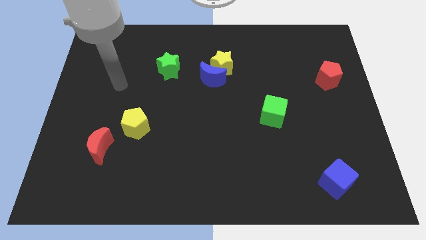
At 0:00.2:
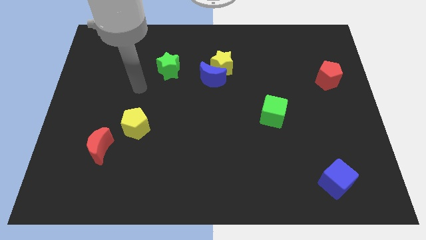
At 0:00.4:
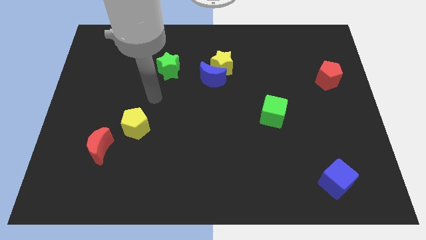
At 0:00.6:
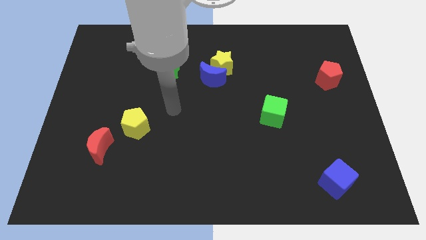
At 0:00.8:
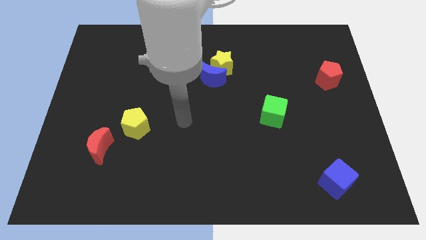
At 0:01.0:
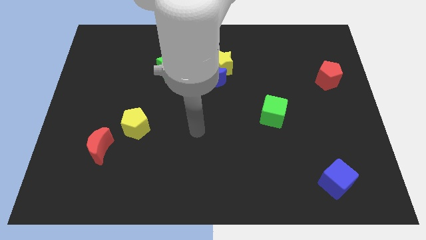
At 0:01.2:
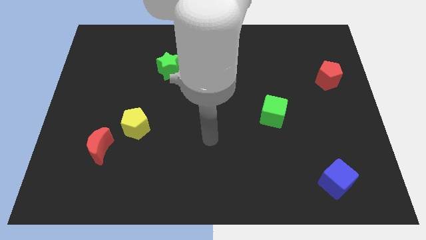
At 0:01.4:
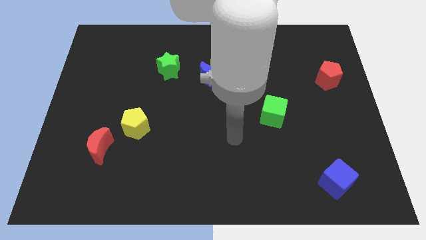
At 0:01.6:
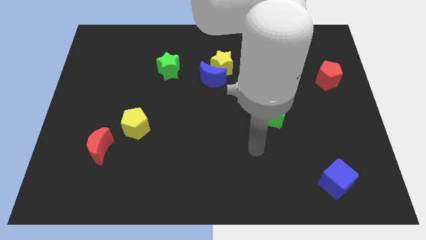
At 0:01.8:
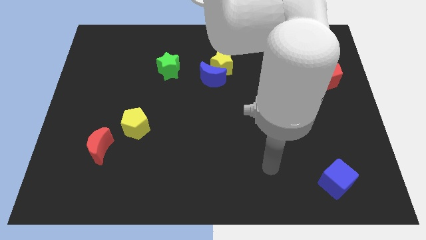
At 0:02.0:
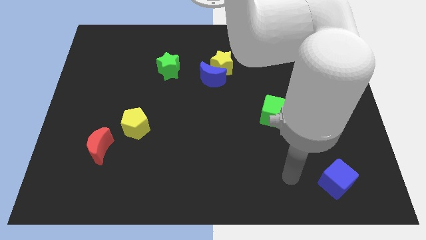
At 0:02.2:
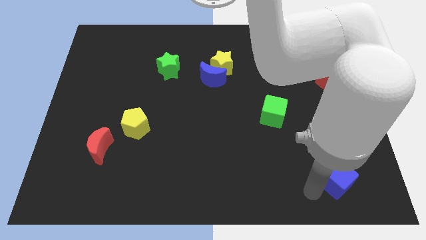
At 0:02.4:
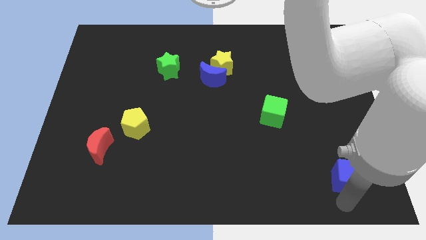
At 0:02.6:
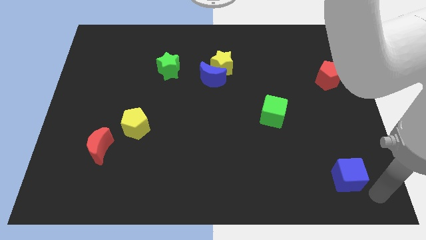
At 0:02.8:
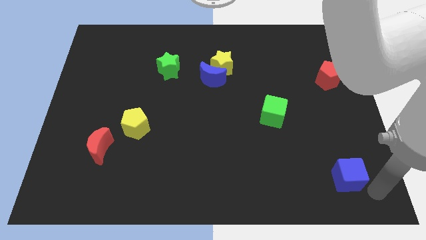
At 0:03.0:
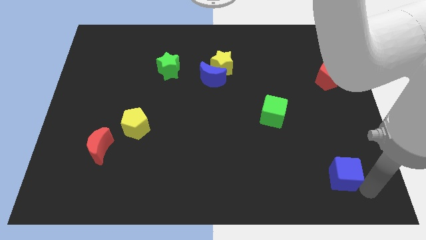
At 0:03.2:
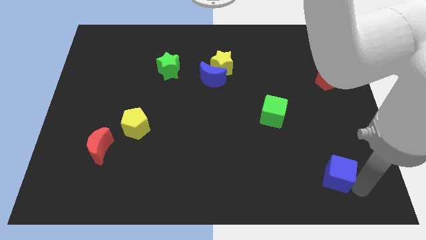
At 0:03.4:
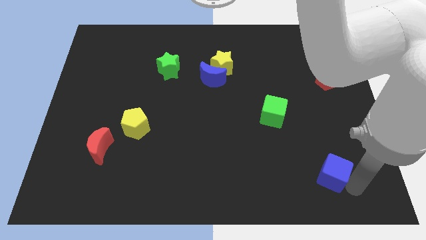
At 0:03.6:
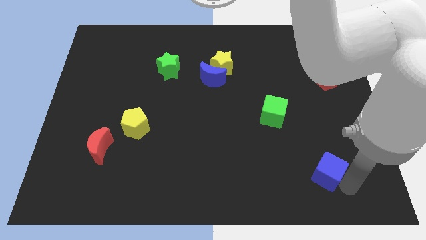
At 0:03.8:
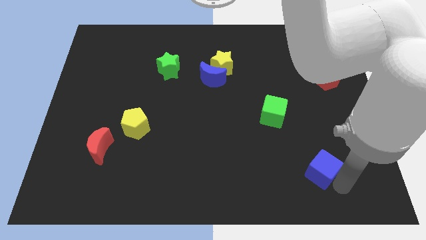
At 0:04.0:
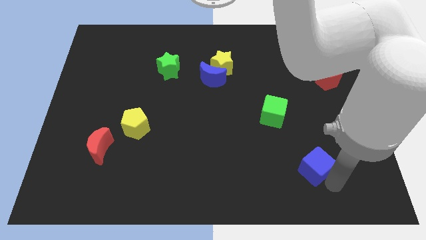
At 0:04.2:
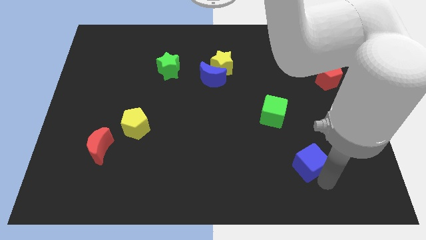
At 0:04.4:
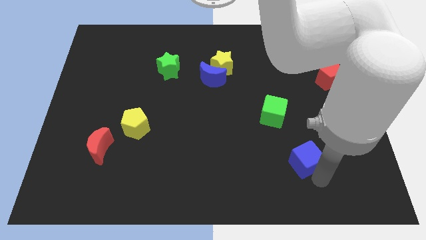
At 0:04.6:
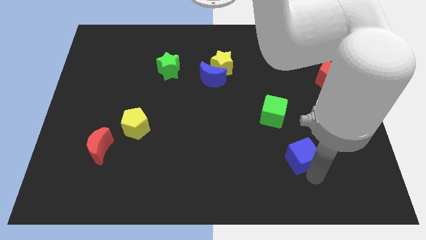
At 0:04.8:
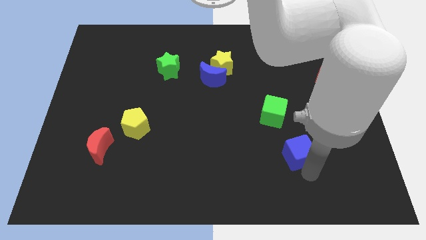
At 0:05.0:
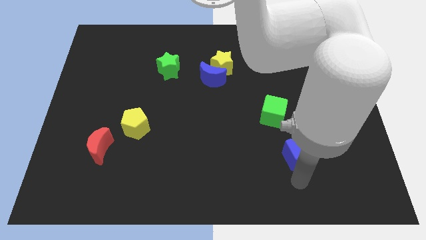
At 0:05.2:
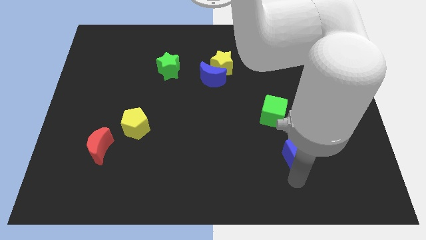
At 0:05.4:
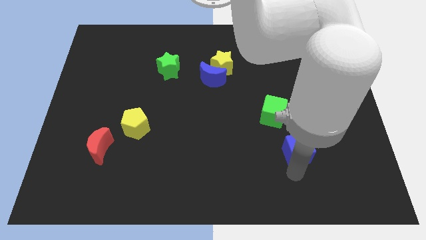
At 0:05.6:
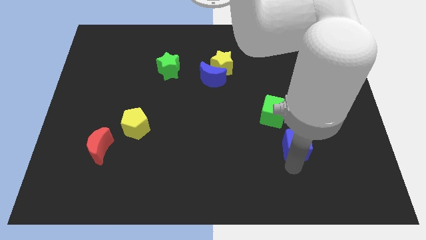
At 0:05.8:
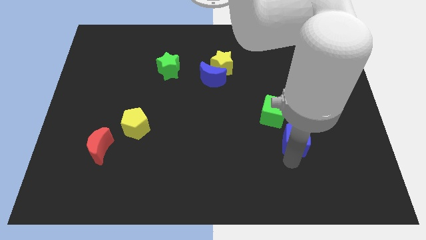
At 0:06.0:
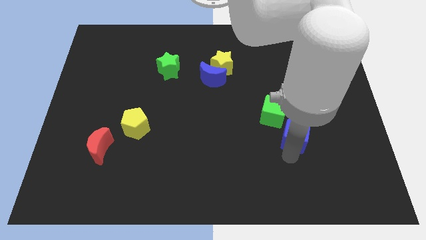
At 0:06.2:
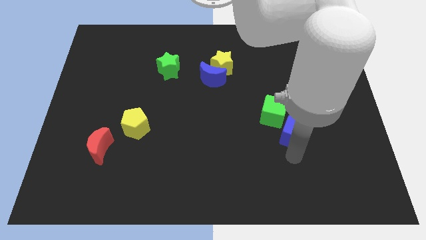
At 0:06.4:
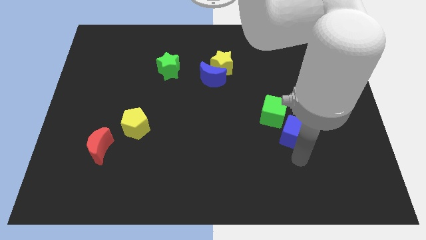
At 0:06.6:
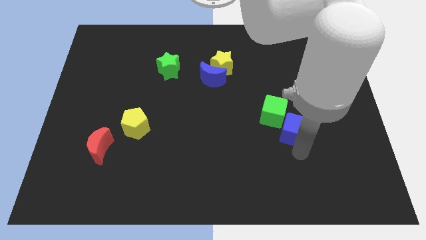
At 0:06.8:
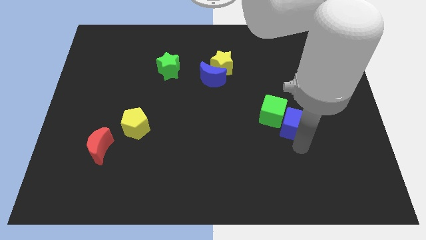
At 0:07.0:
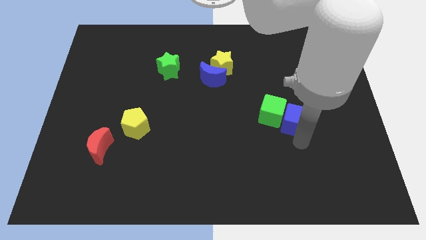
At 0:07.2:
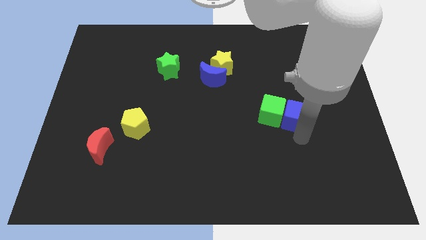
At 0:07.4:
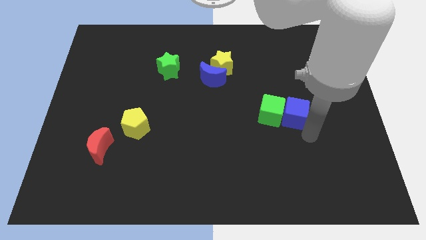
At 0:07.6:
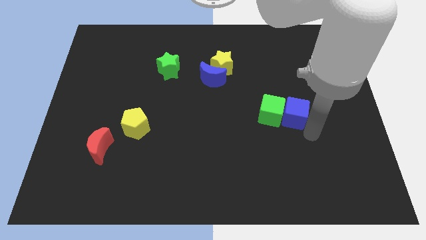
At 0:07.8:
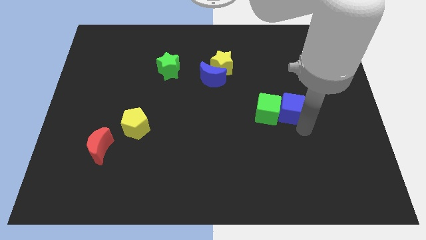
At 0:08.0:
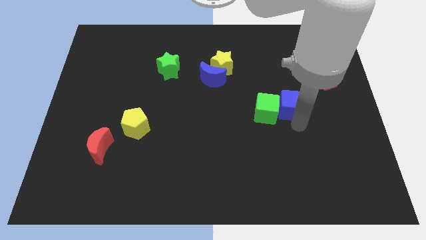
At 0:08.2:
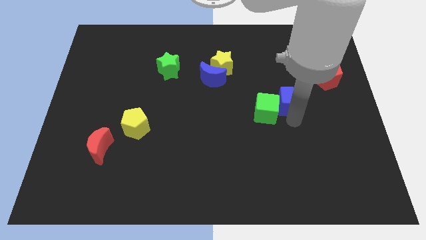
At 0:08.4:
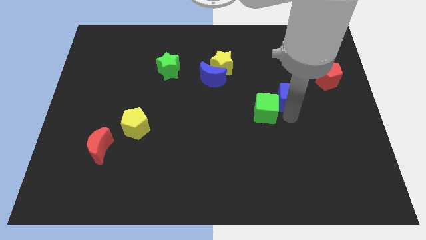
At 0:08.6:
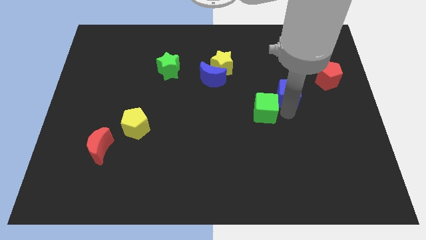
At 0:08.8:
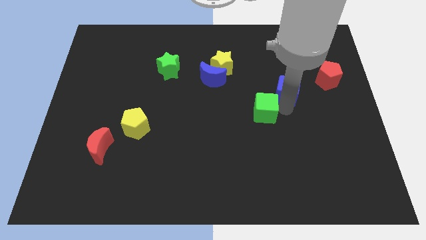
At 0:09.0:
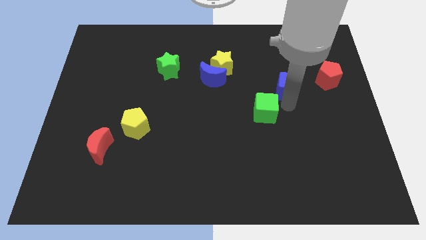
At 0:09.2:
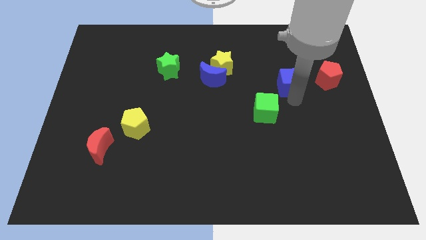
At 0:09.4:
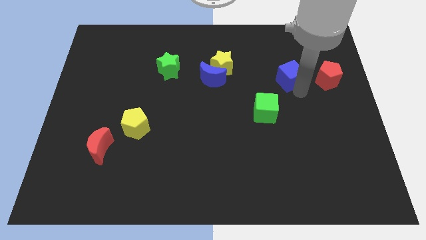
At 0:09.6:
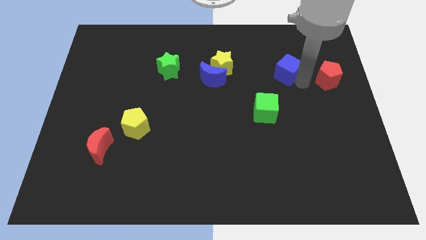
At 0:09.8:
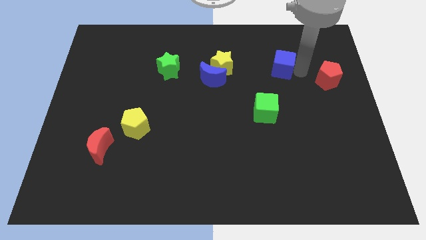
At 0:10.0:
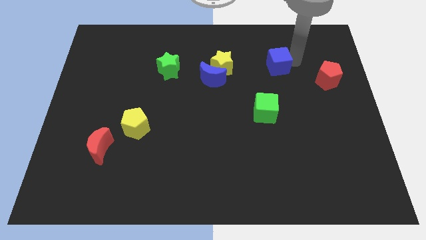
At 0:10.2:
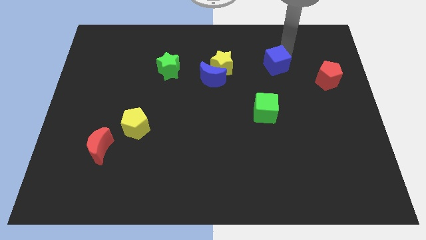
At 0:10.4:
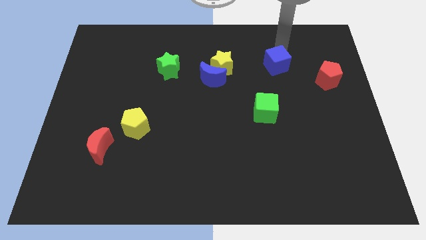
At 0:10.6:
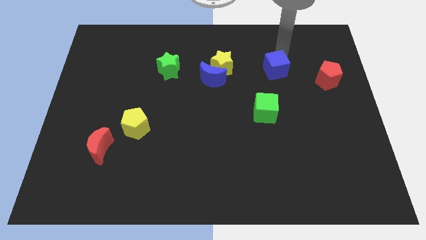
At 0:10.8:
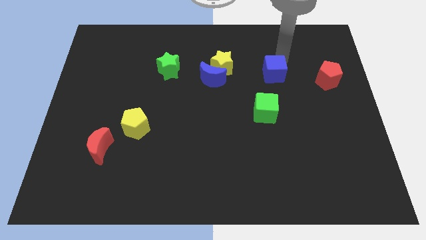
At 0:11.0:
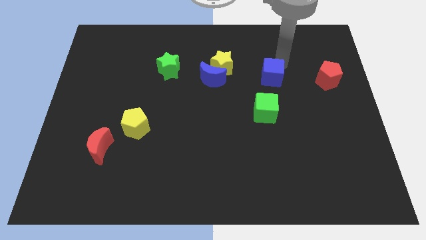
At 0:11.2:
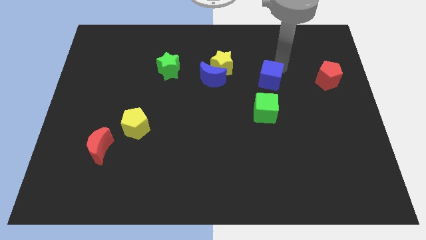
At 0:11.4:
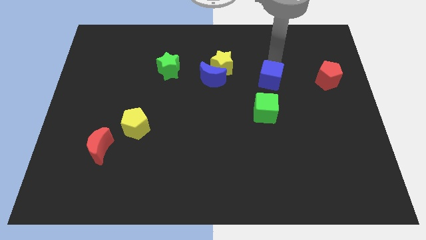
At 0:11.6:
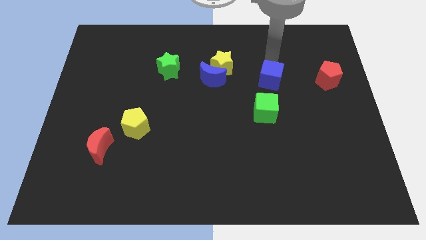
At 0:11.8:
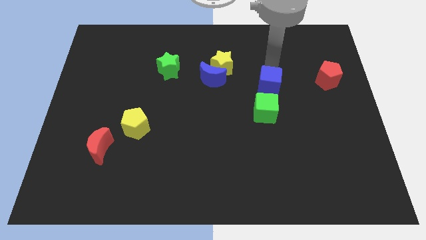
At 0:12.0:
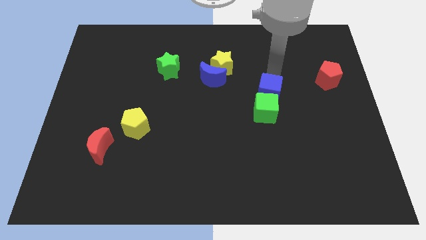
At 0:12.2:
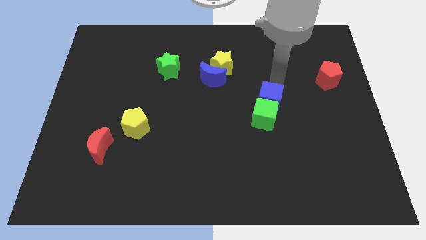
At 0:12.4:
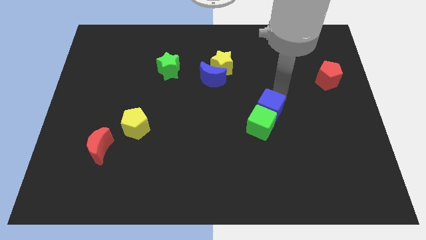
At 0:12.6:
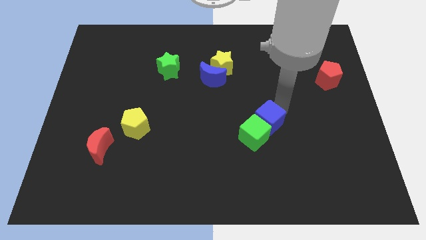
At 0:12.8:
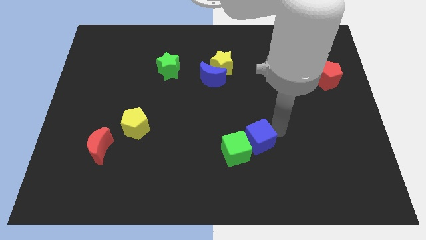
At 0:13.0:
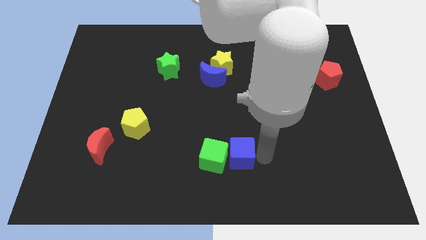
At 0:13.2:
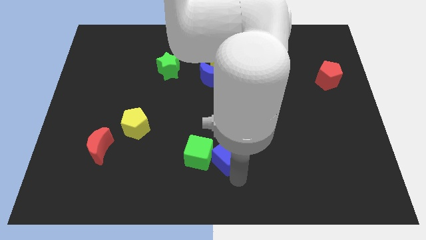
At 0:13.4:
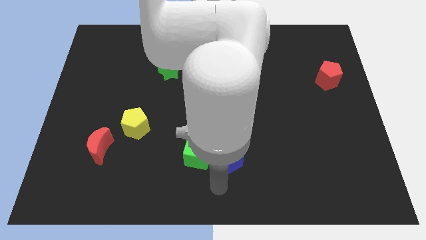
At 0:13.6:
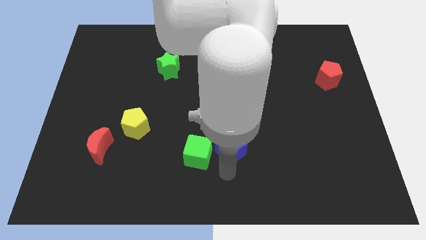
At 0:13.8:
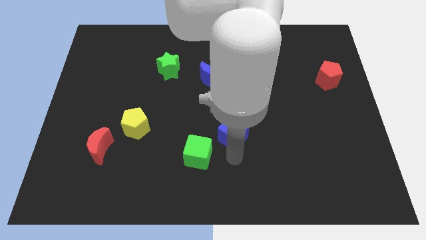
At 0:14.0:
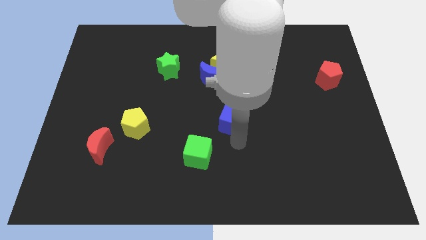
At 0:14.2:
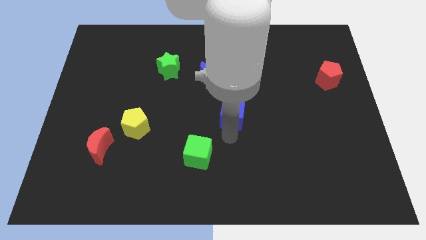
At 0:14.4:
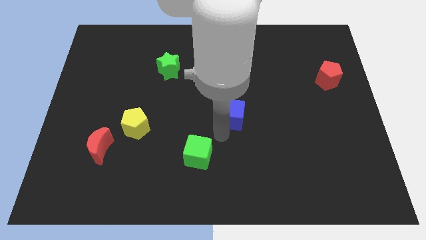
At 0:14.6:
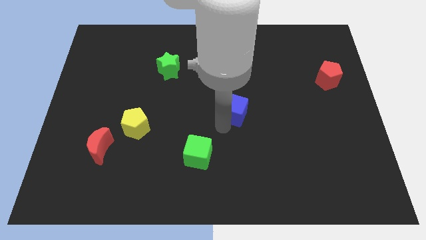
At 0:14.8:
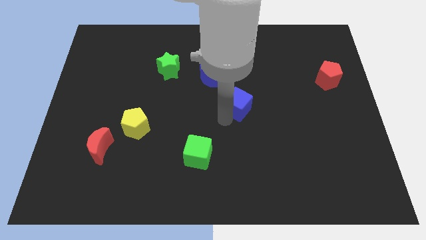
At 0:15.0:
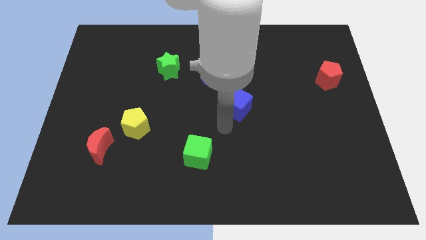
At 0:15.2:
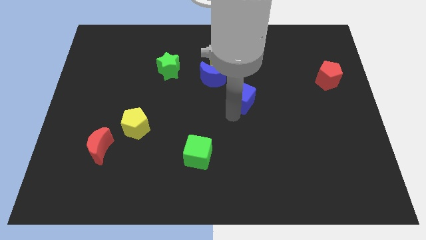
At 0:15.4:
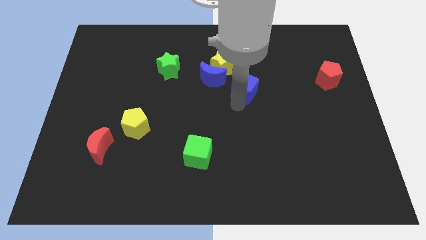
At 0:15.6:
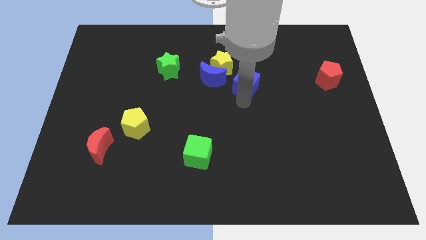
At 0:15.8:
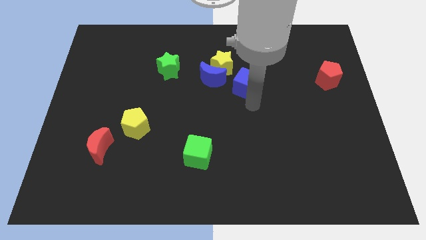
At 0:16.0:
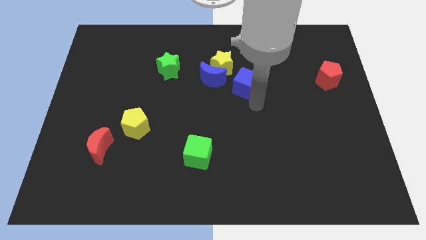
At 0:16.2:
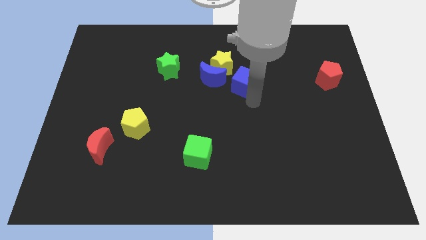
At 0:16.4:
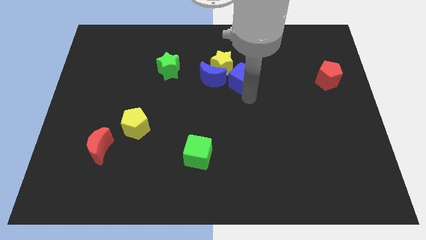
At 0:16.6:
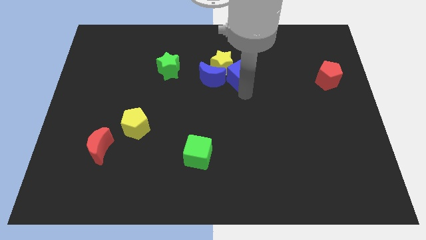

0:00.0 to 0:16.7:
move the blue cube close to the yellow star
